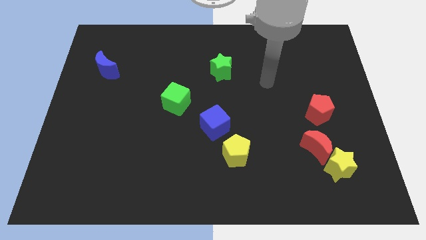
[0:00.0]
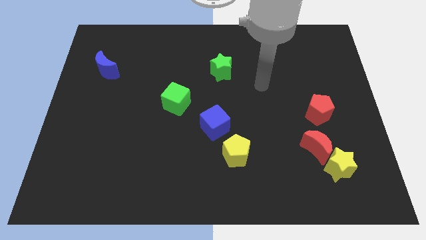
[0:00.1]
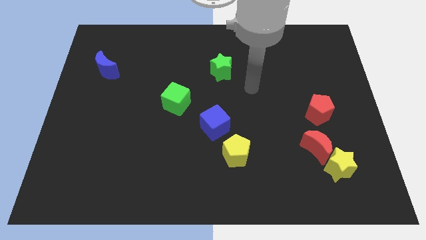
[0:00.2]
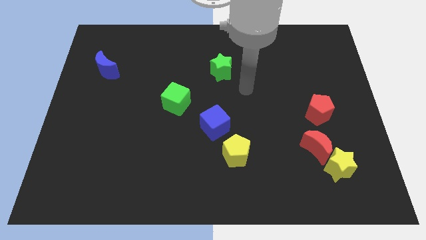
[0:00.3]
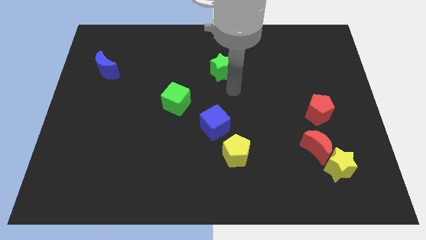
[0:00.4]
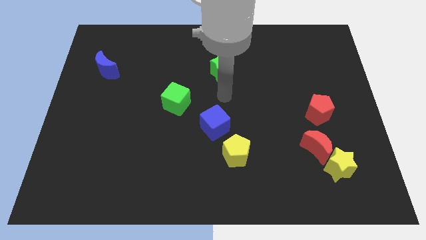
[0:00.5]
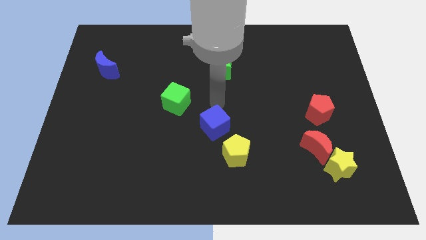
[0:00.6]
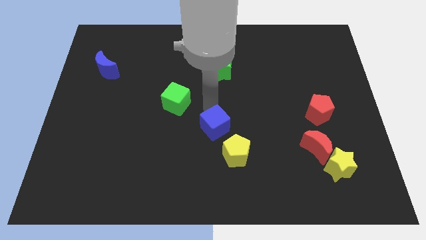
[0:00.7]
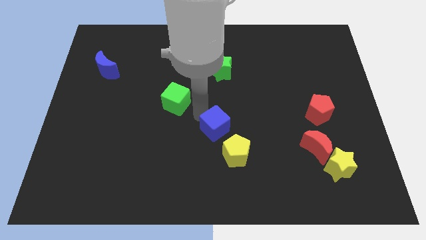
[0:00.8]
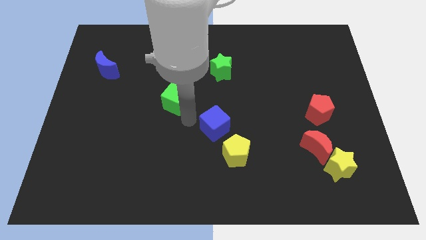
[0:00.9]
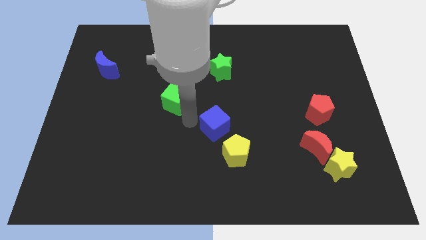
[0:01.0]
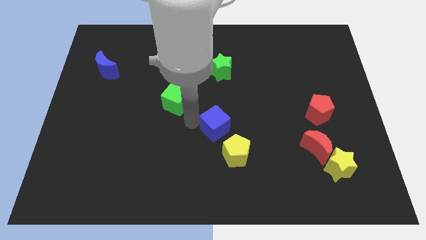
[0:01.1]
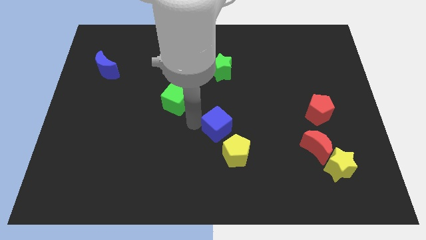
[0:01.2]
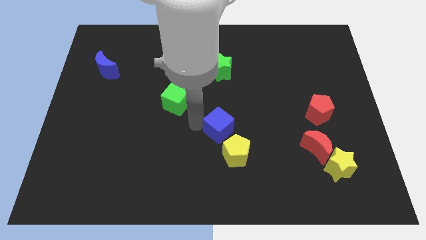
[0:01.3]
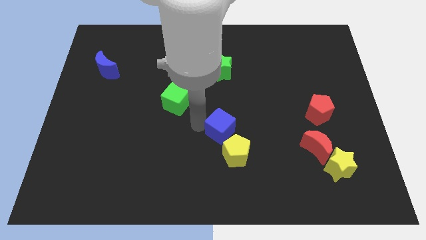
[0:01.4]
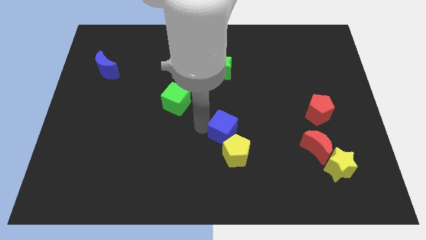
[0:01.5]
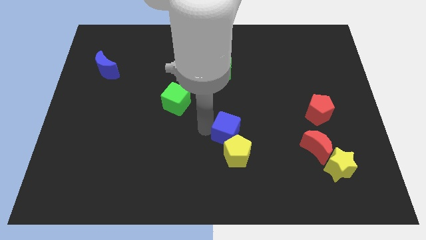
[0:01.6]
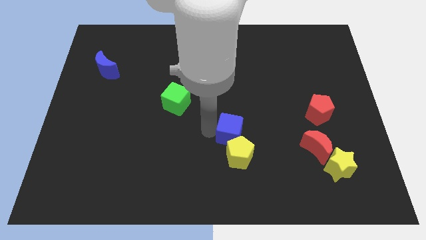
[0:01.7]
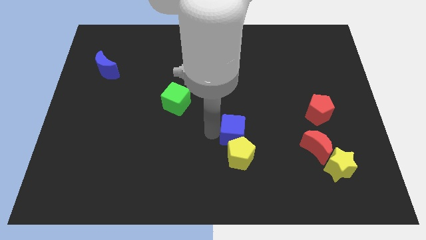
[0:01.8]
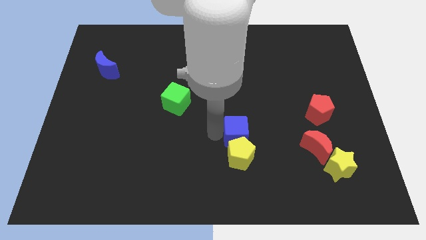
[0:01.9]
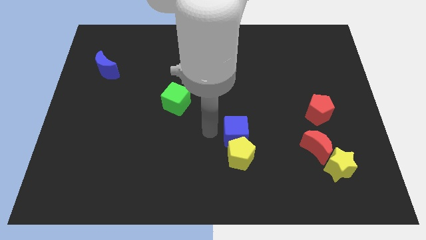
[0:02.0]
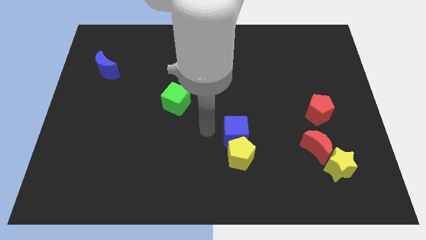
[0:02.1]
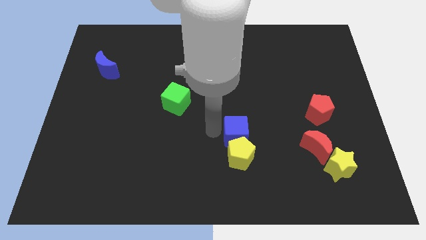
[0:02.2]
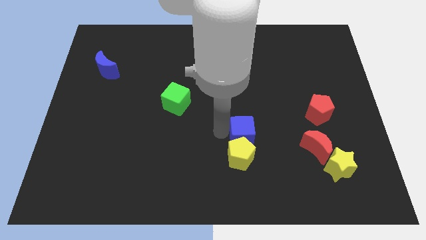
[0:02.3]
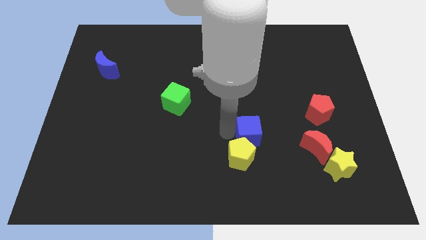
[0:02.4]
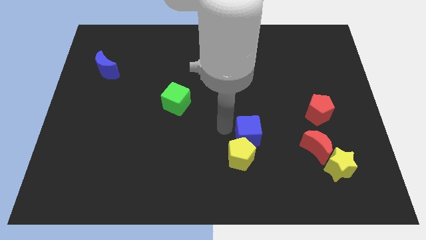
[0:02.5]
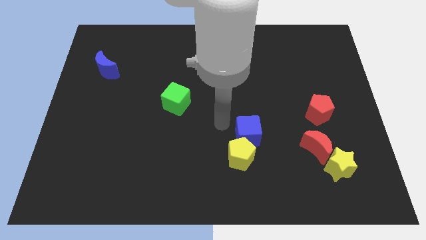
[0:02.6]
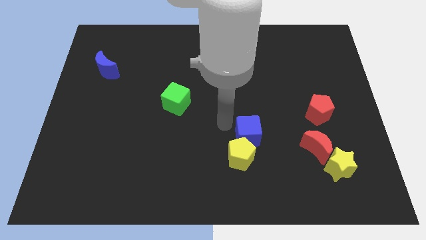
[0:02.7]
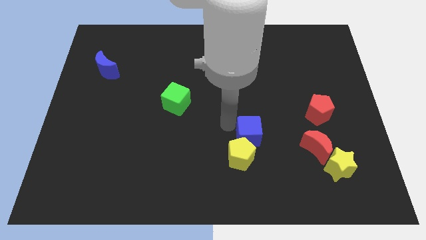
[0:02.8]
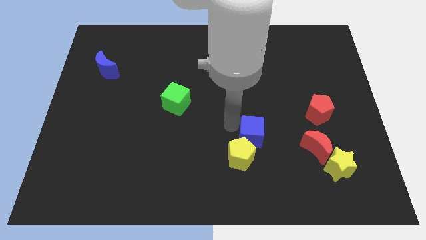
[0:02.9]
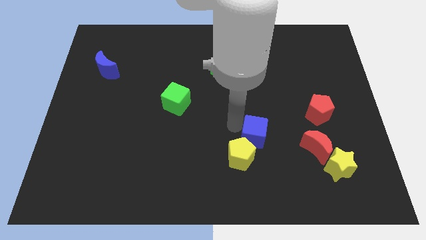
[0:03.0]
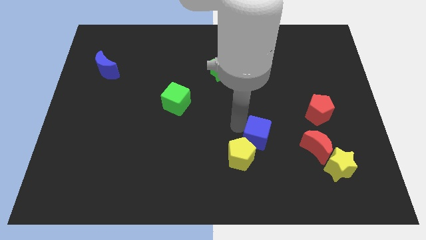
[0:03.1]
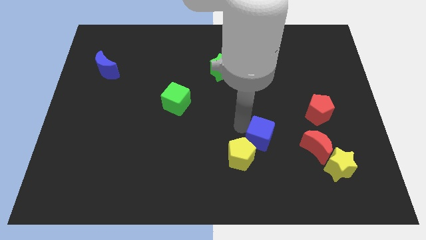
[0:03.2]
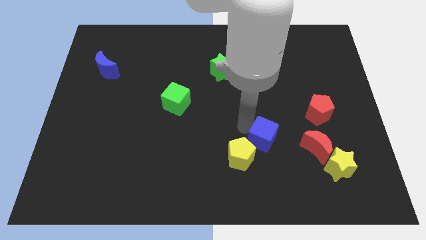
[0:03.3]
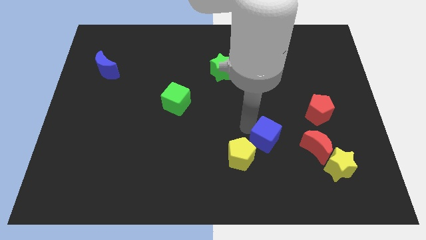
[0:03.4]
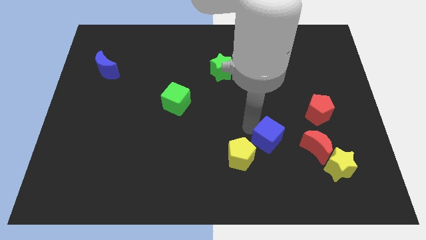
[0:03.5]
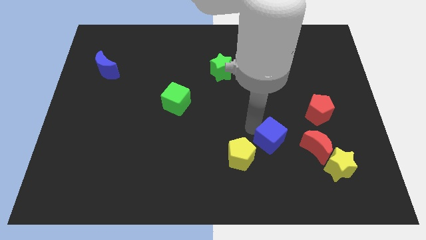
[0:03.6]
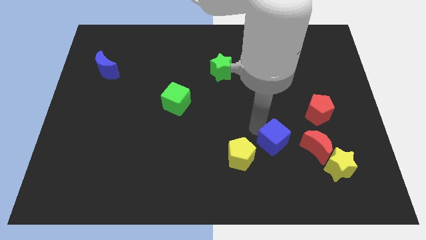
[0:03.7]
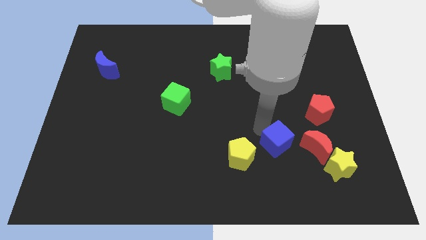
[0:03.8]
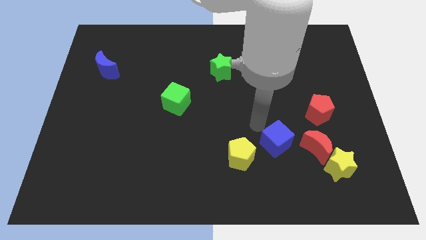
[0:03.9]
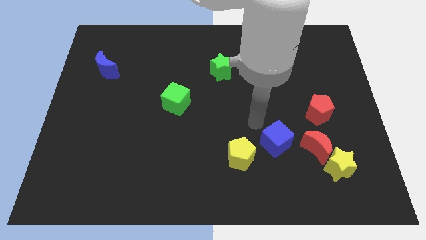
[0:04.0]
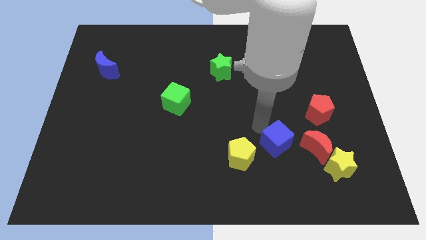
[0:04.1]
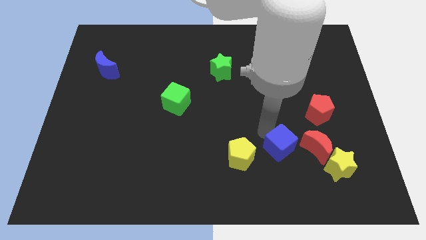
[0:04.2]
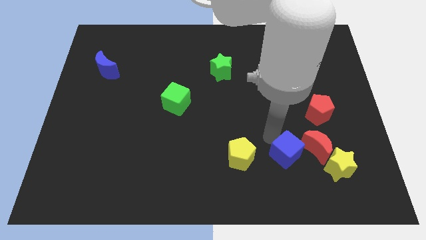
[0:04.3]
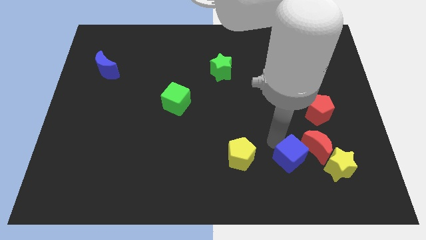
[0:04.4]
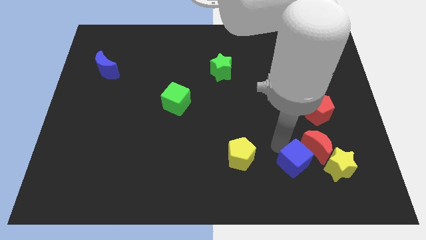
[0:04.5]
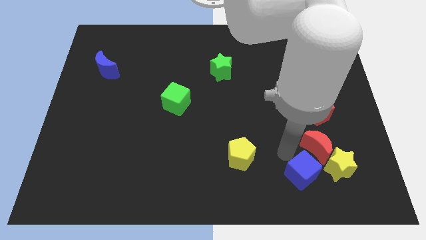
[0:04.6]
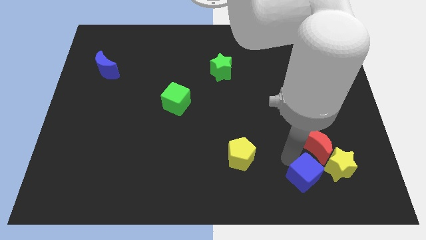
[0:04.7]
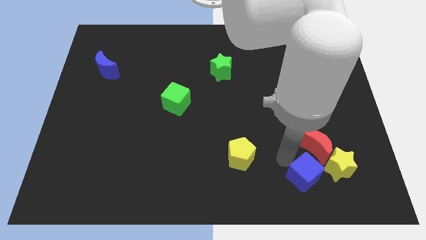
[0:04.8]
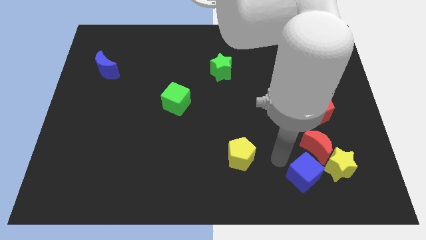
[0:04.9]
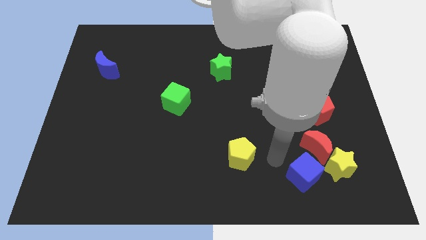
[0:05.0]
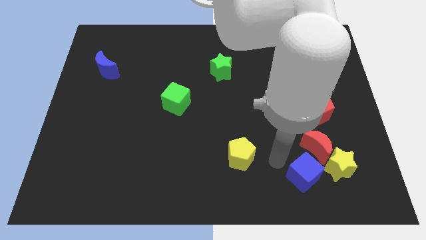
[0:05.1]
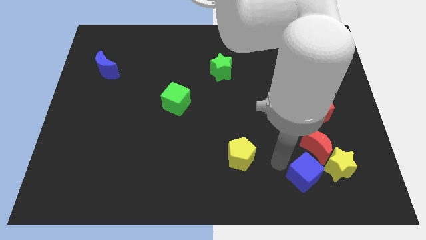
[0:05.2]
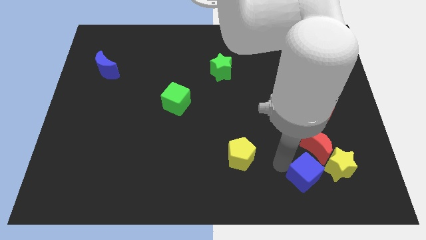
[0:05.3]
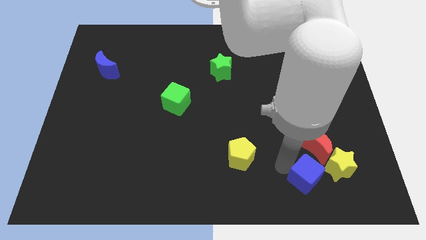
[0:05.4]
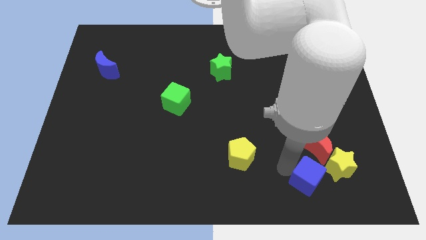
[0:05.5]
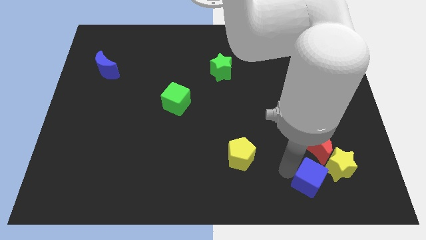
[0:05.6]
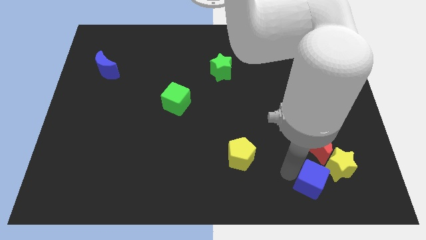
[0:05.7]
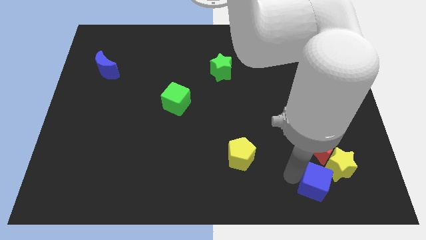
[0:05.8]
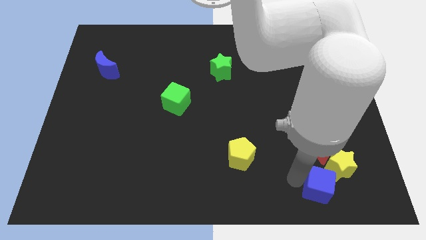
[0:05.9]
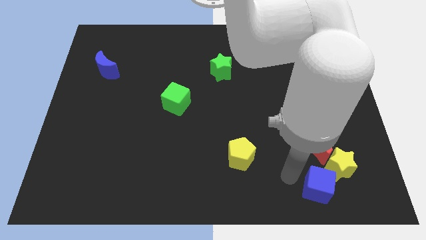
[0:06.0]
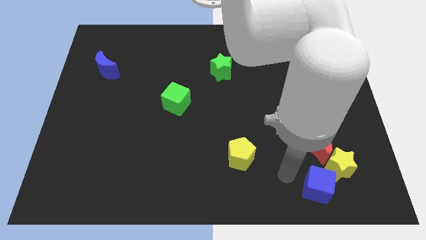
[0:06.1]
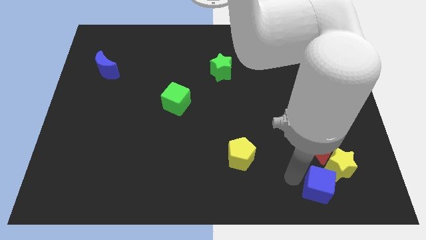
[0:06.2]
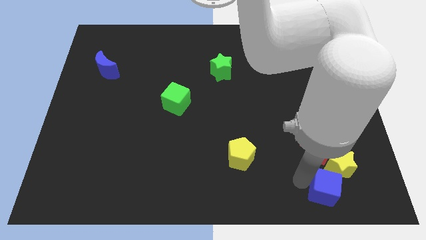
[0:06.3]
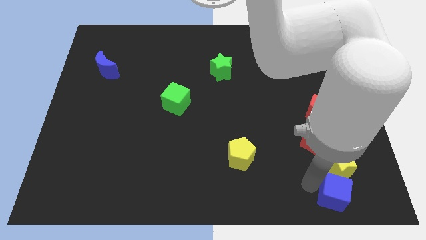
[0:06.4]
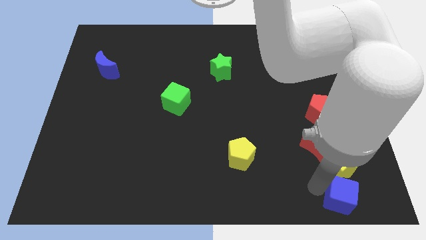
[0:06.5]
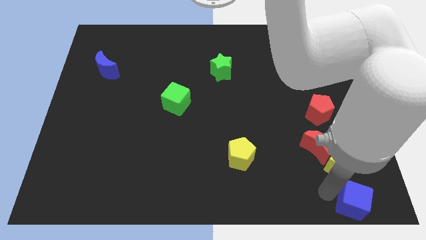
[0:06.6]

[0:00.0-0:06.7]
push the blue cube to the lower right corner
